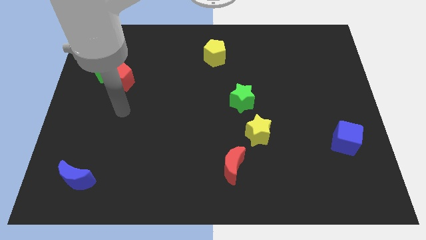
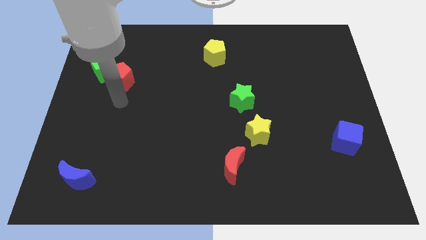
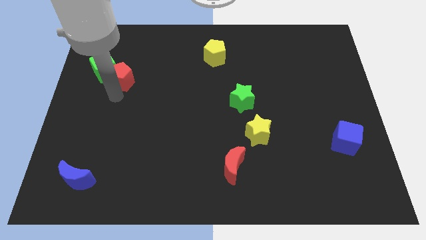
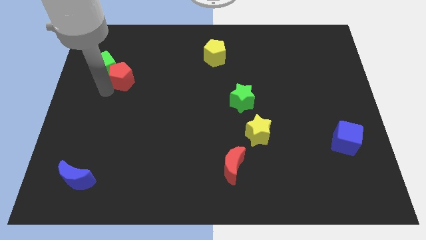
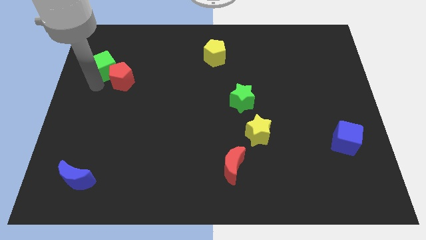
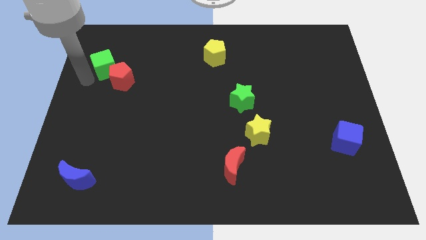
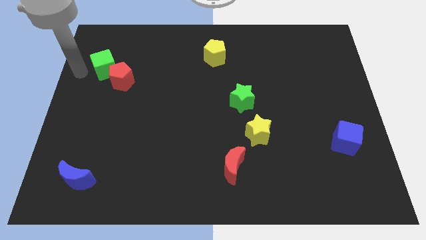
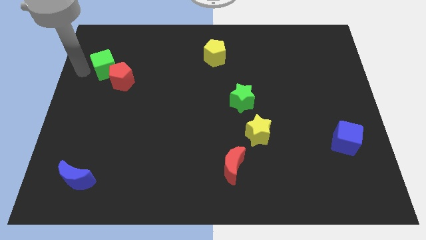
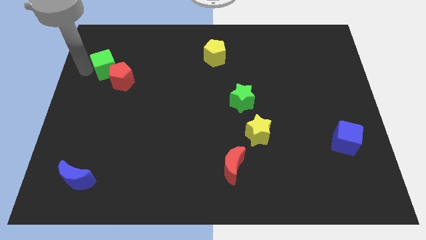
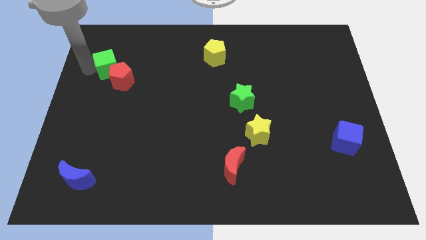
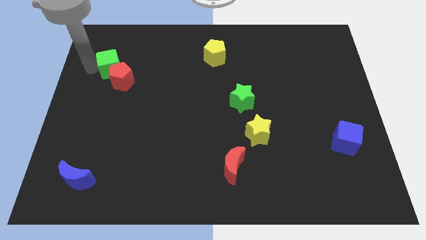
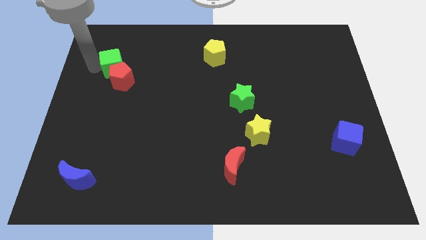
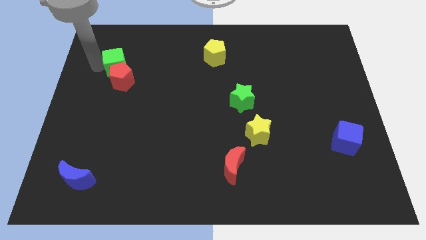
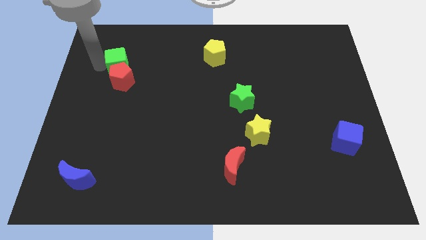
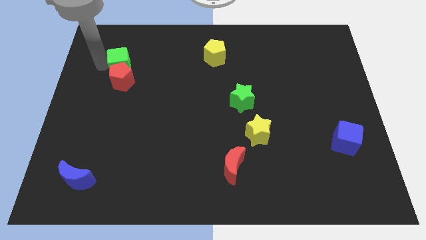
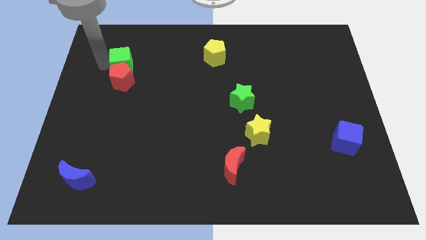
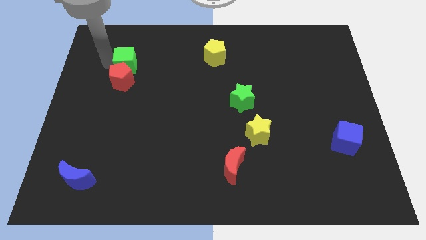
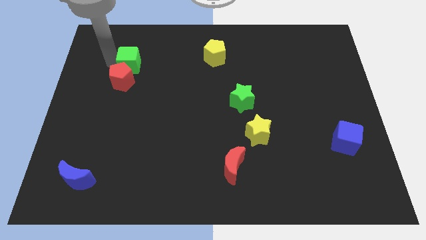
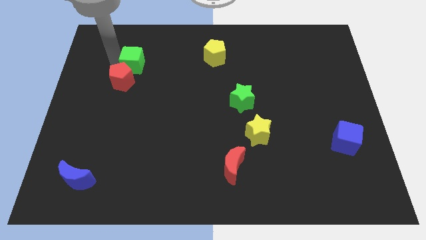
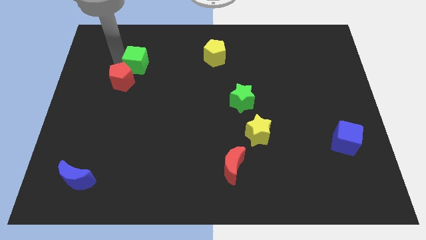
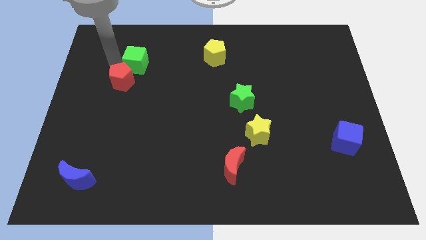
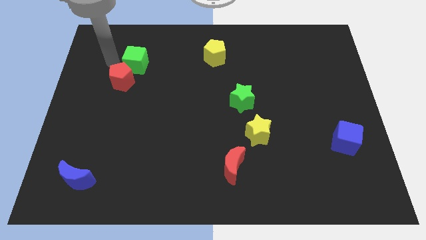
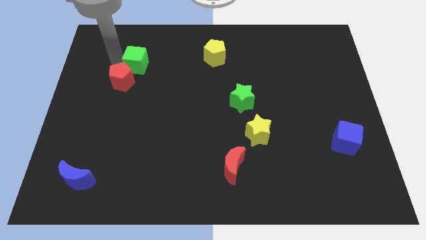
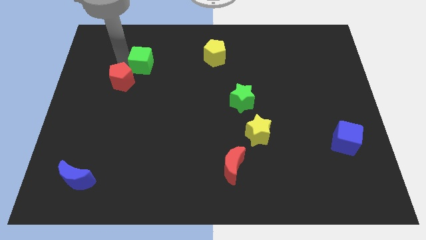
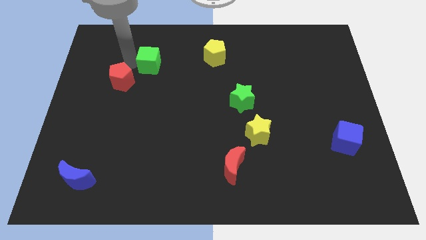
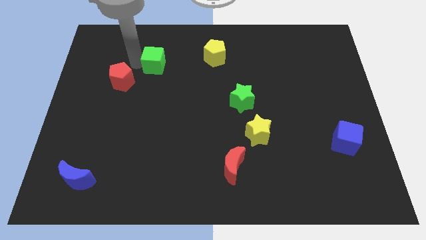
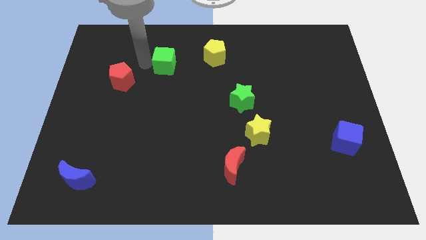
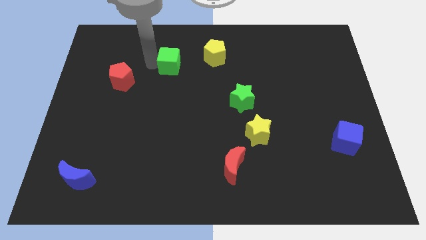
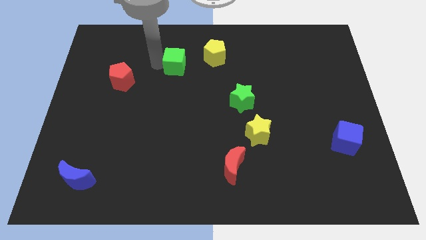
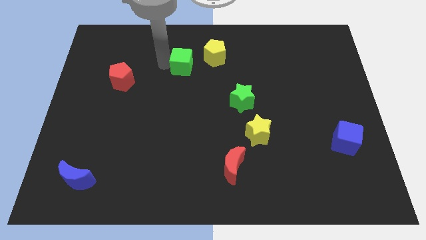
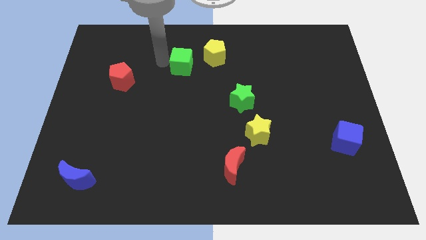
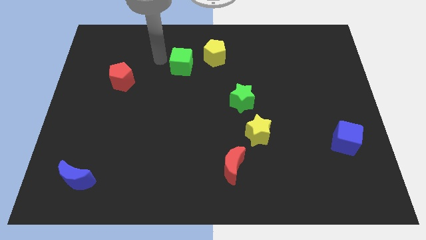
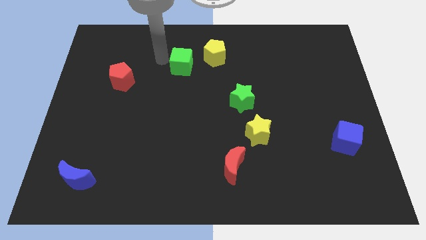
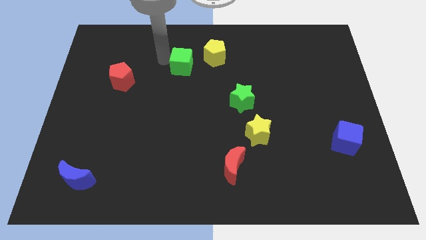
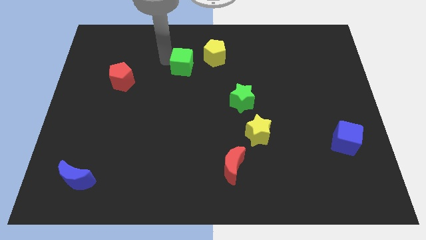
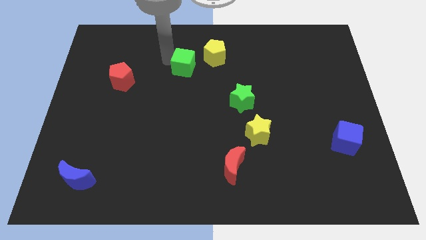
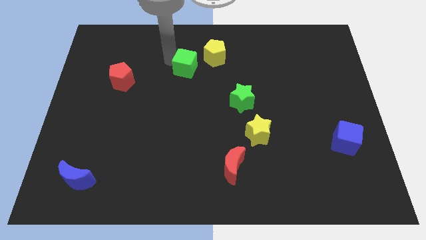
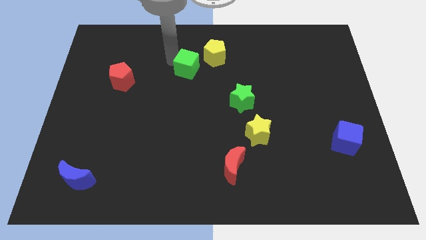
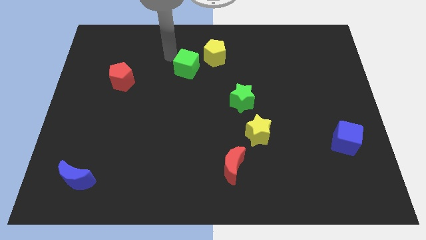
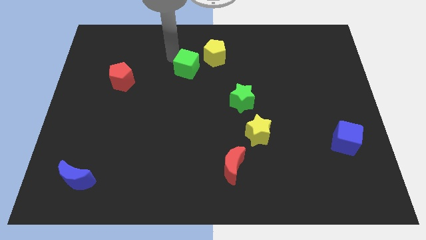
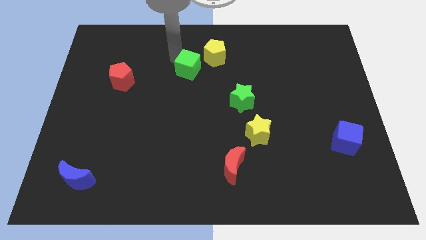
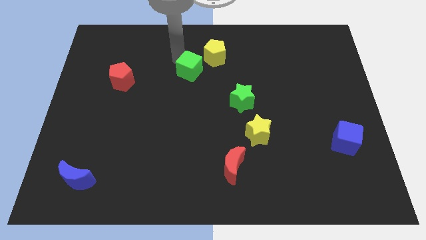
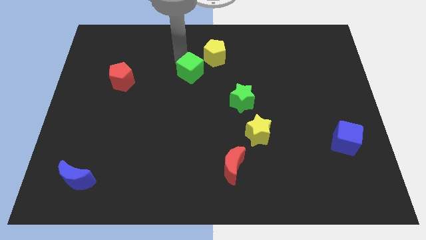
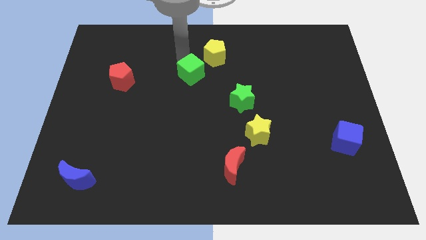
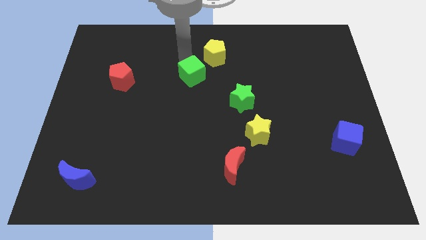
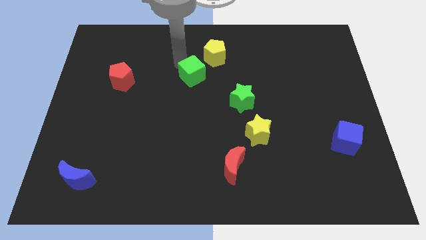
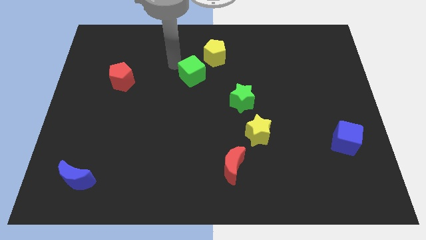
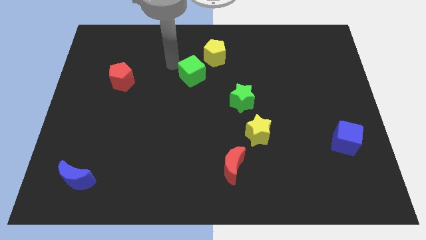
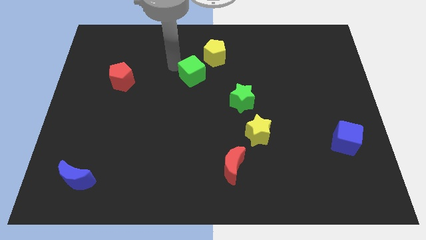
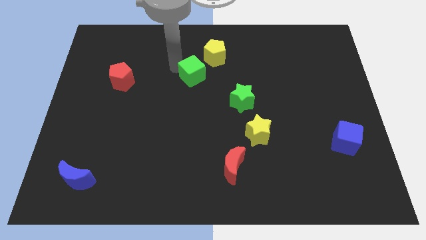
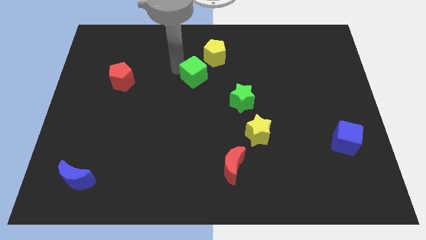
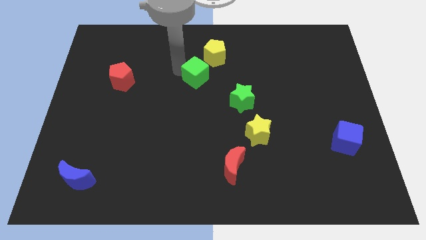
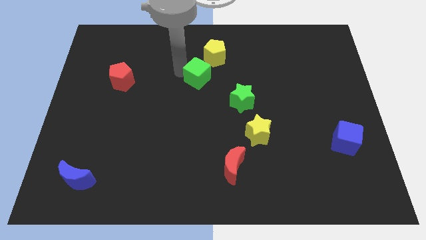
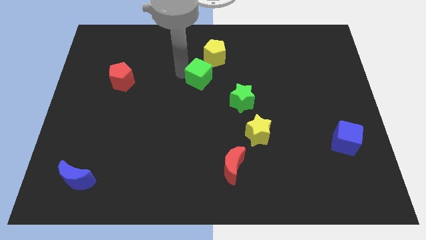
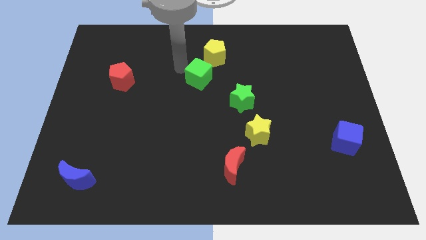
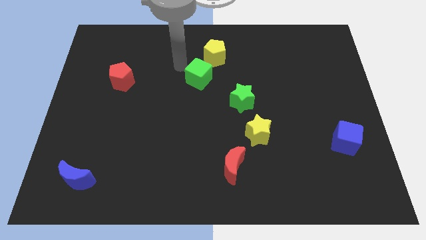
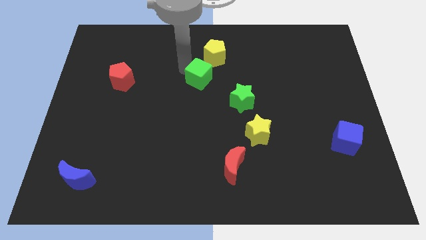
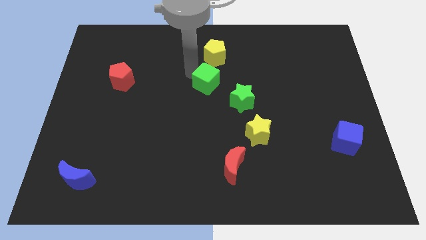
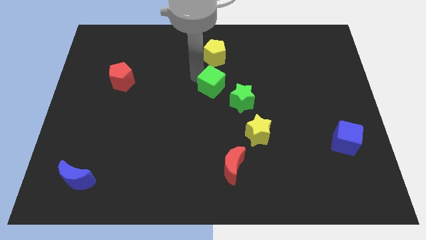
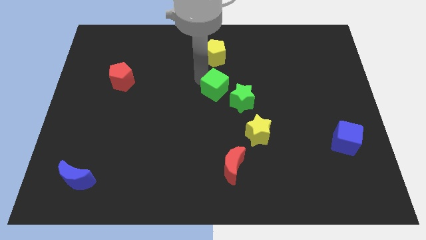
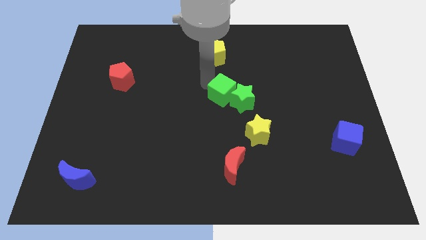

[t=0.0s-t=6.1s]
put the green cube to the green star

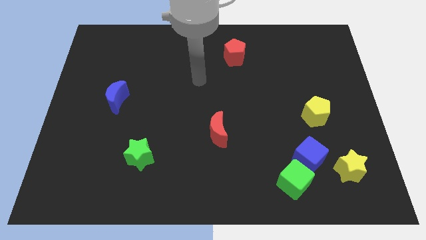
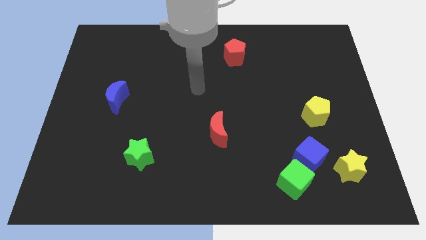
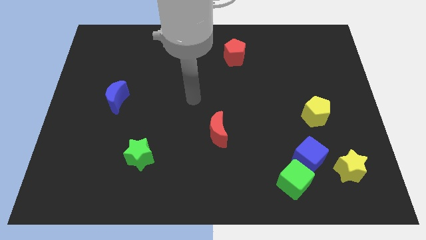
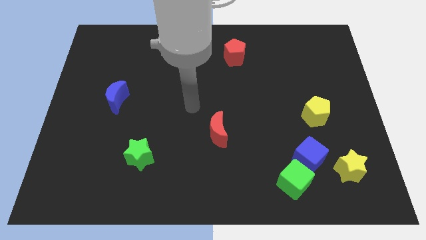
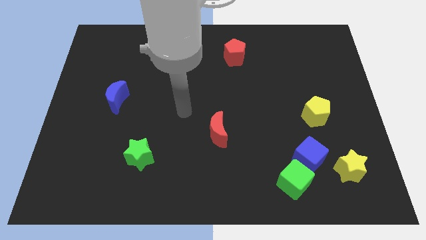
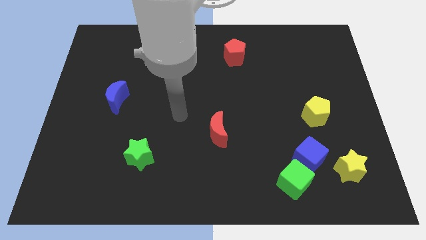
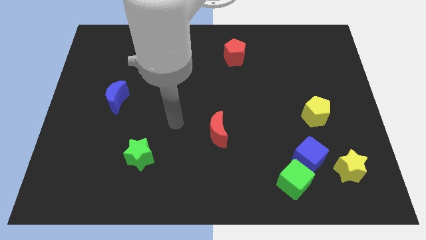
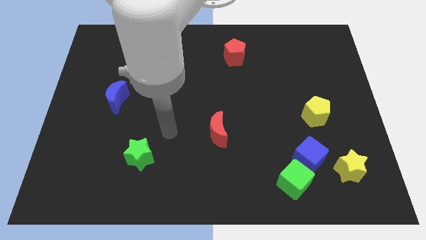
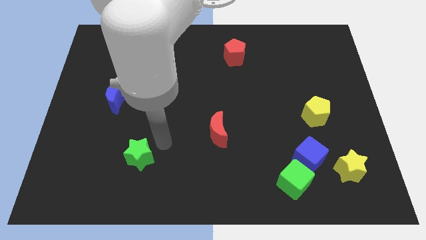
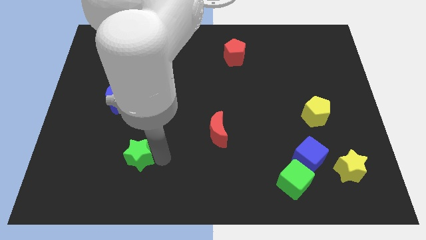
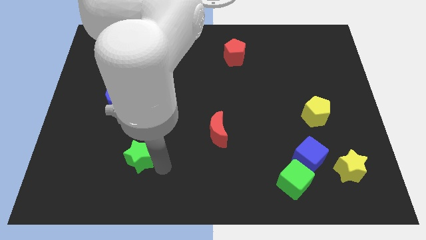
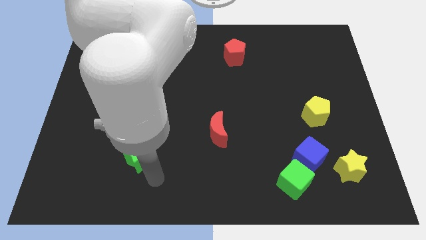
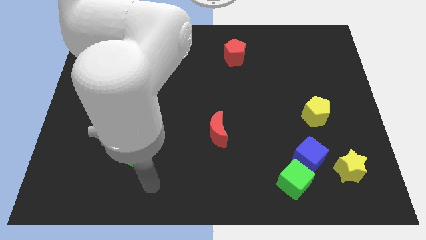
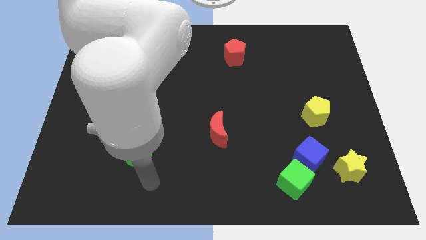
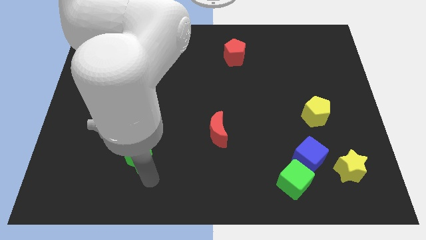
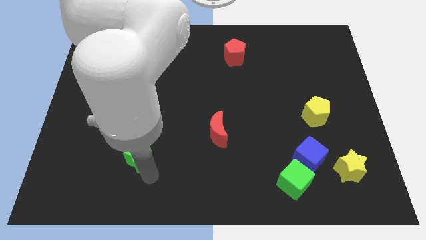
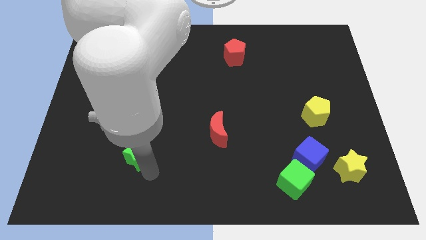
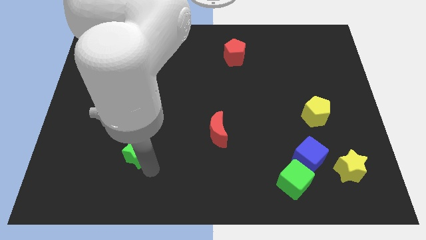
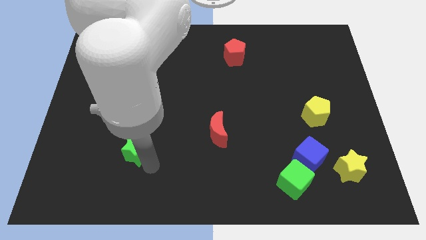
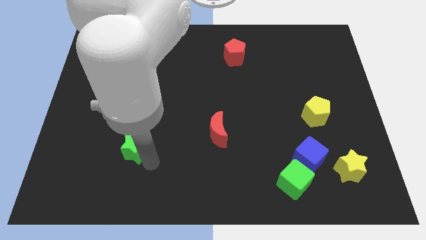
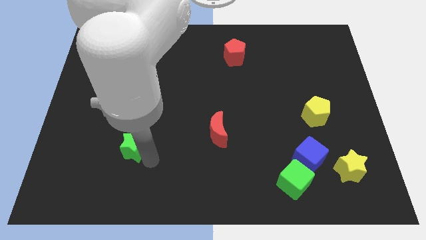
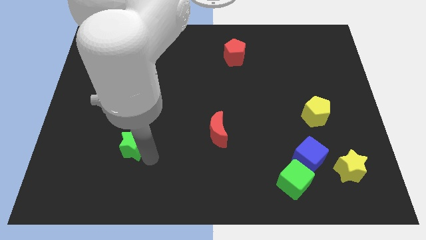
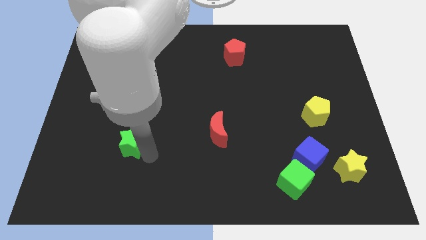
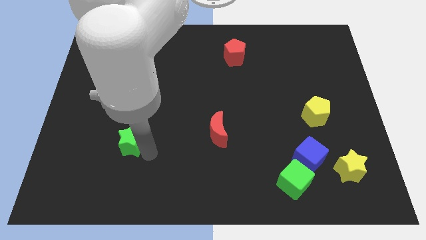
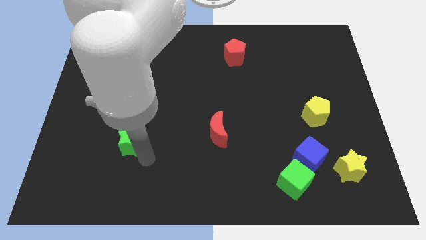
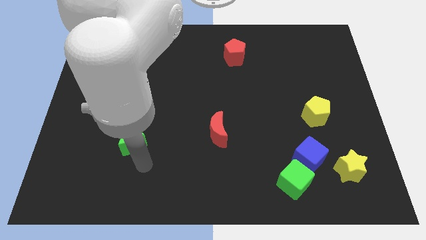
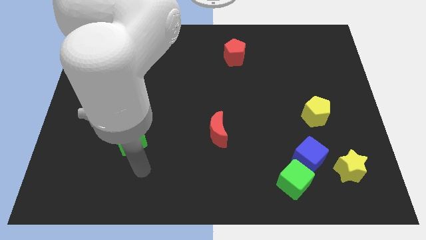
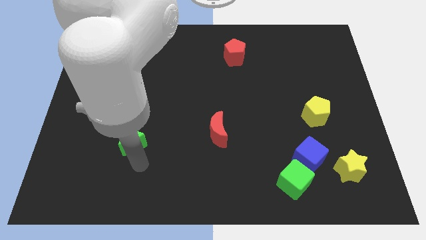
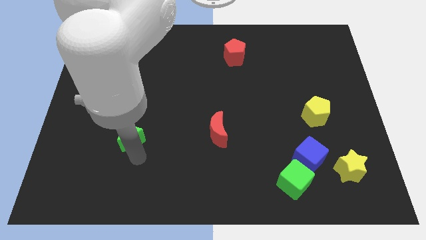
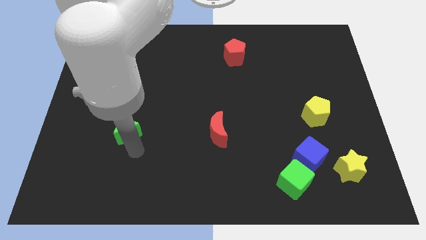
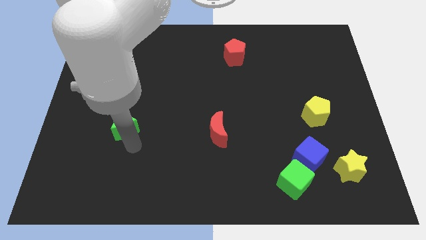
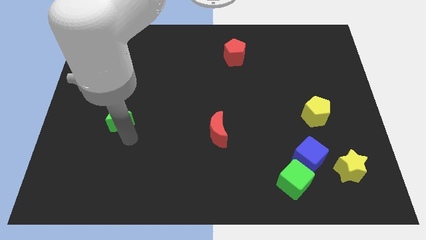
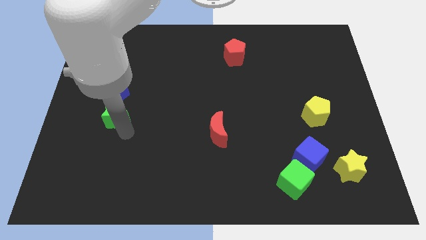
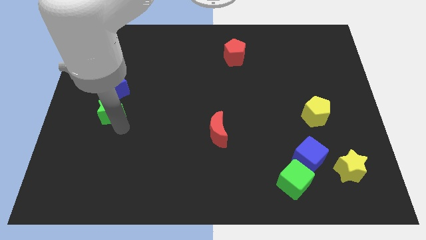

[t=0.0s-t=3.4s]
push the green star next to the blue moon
